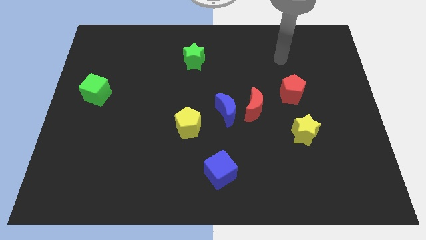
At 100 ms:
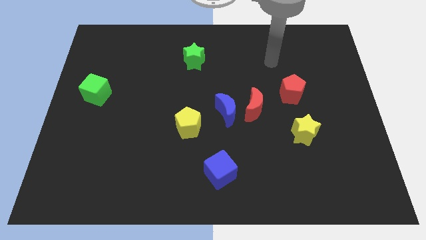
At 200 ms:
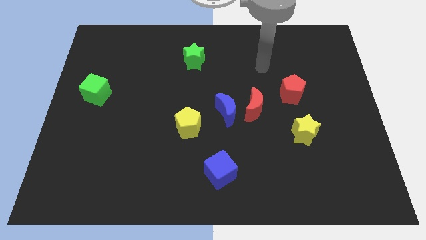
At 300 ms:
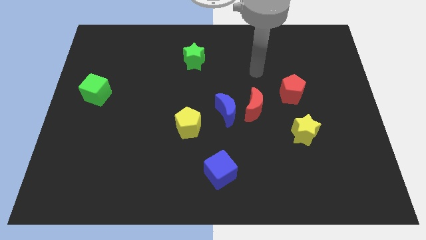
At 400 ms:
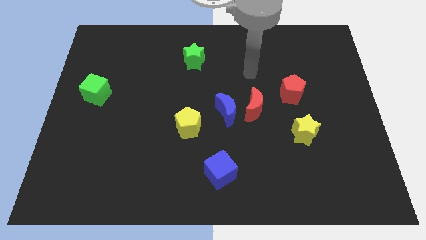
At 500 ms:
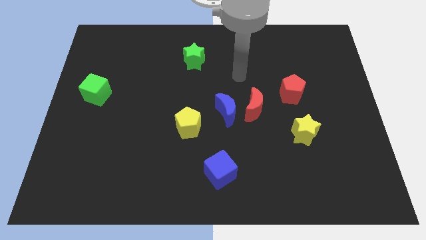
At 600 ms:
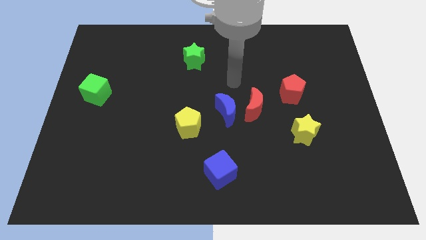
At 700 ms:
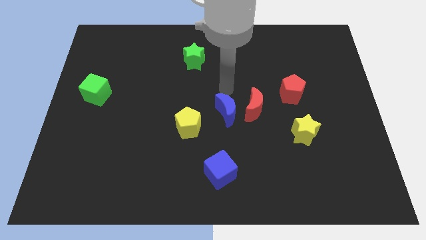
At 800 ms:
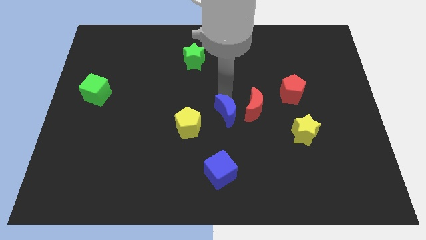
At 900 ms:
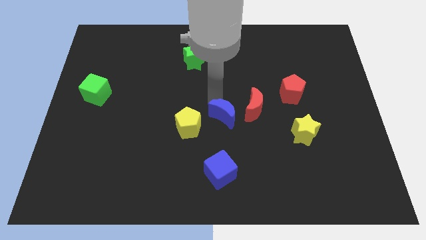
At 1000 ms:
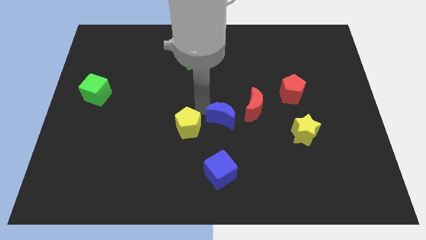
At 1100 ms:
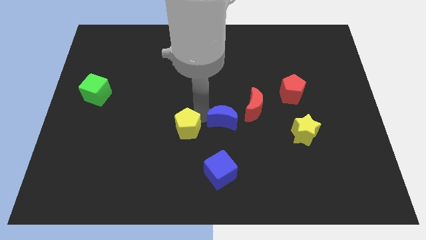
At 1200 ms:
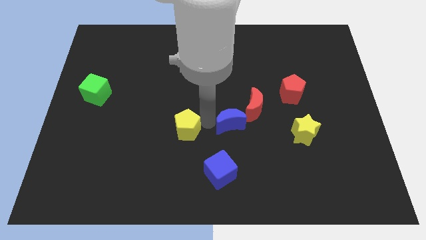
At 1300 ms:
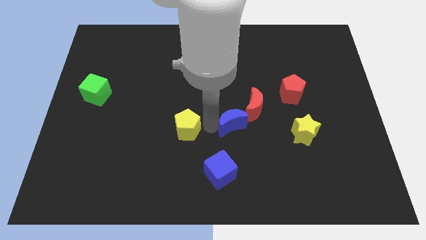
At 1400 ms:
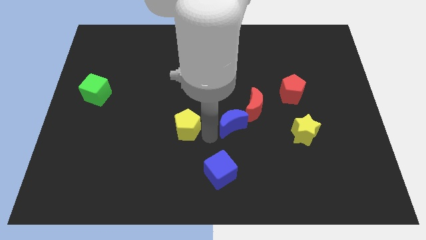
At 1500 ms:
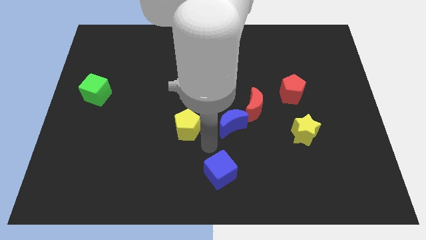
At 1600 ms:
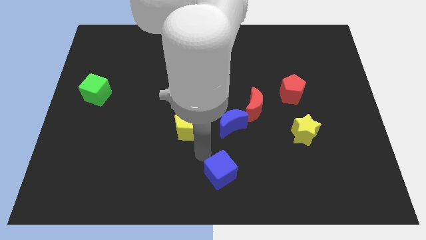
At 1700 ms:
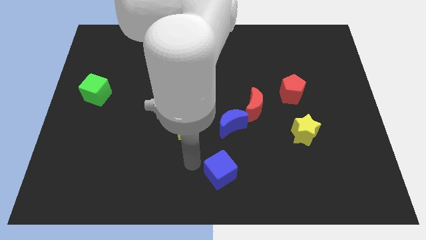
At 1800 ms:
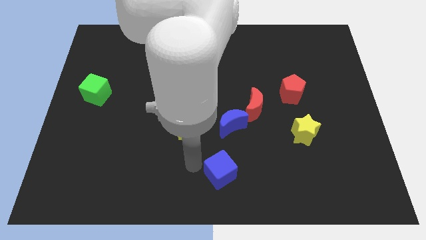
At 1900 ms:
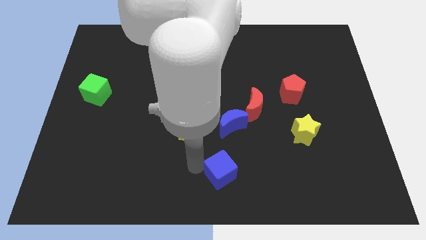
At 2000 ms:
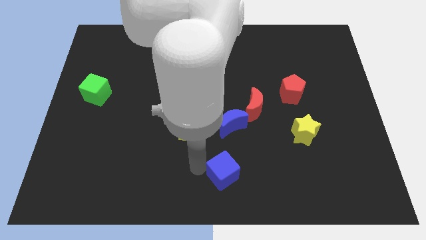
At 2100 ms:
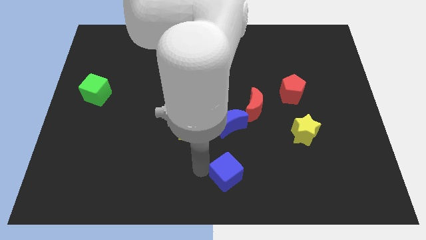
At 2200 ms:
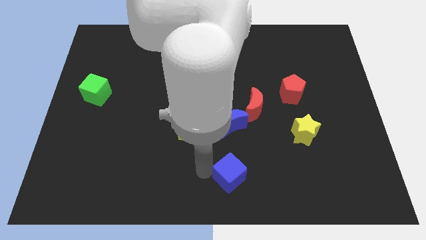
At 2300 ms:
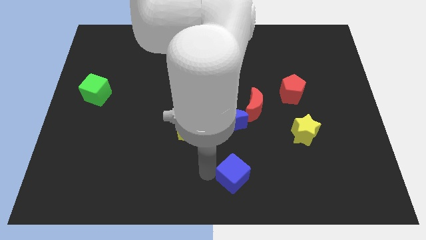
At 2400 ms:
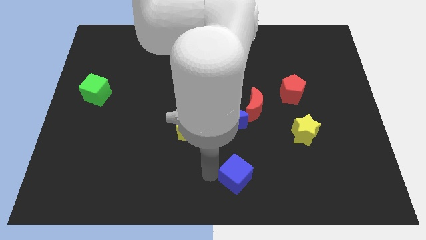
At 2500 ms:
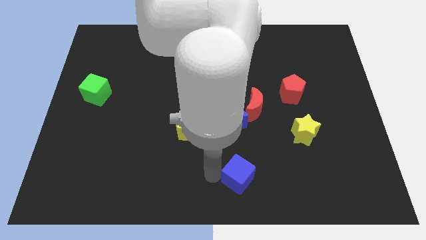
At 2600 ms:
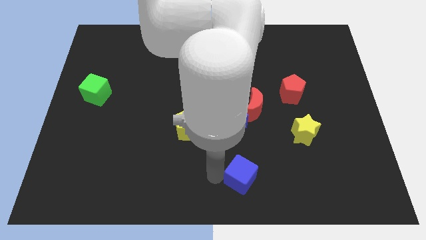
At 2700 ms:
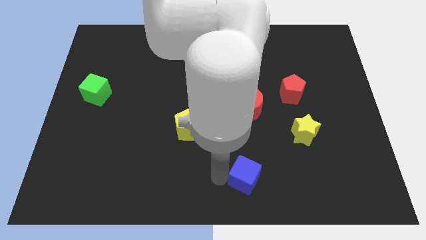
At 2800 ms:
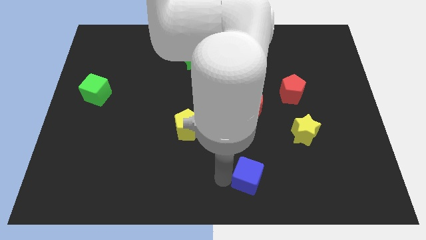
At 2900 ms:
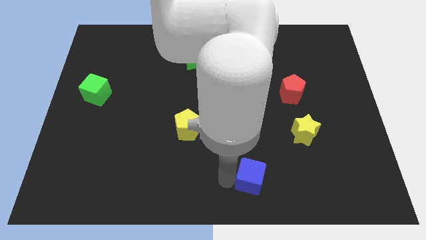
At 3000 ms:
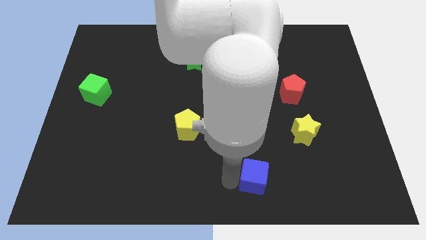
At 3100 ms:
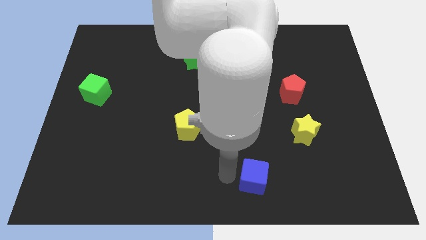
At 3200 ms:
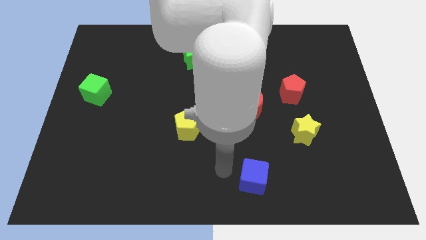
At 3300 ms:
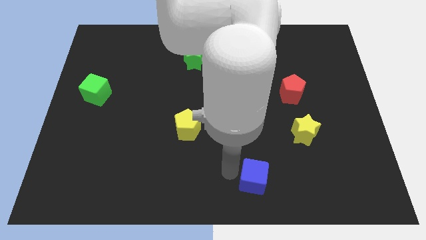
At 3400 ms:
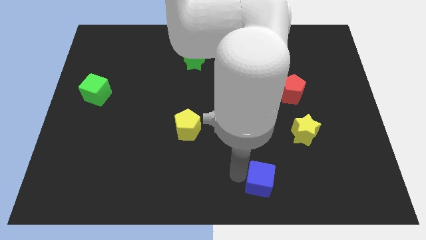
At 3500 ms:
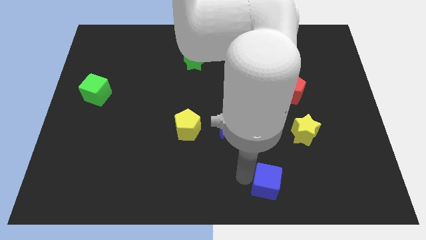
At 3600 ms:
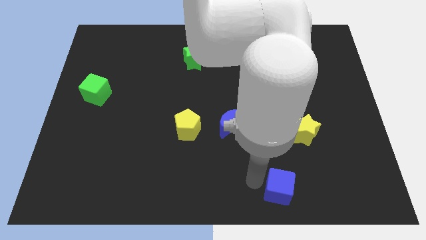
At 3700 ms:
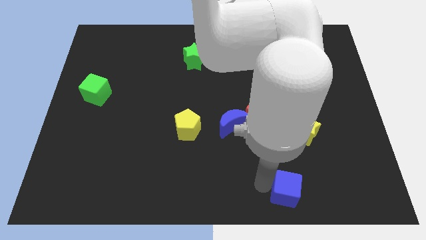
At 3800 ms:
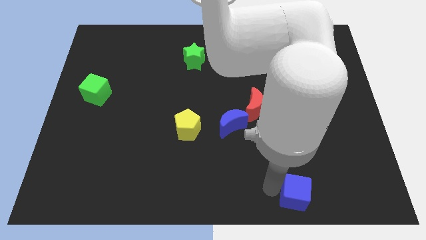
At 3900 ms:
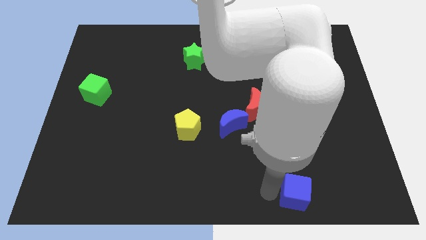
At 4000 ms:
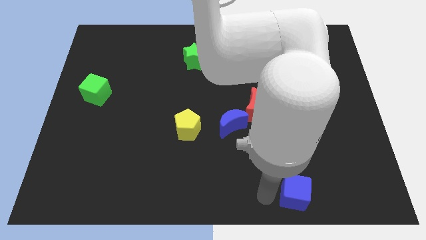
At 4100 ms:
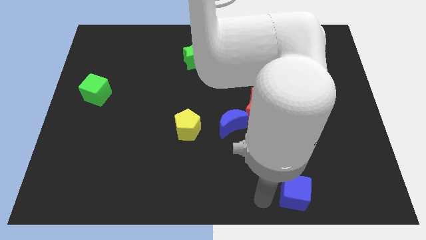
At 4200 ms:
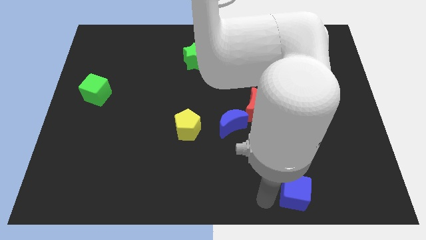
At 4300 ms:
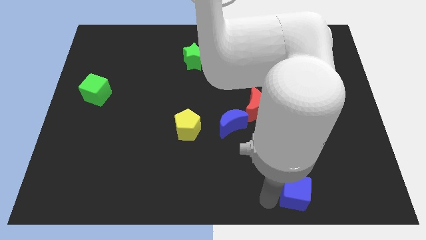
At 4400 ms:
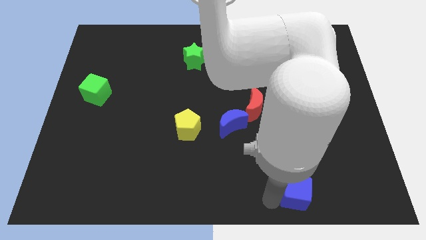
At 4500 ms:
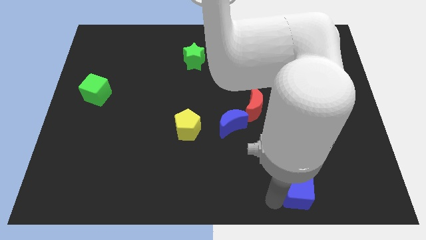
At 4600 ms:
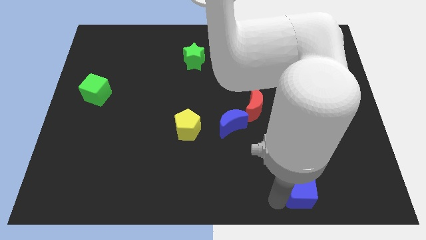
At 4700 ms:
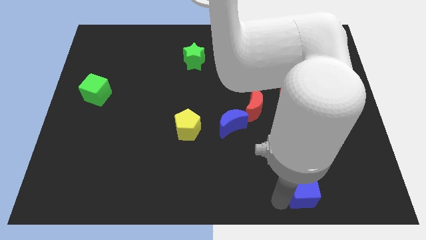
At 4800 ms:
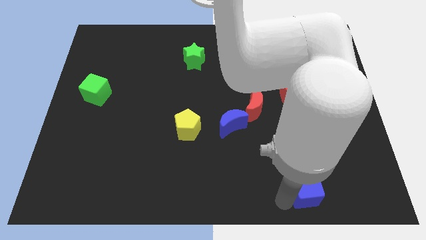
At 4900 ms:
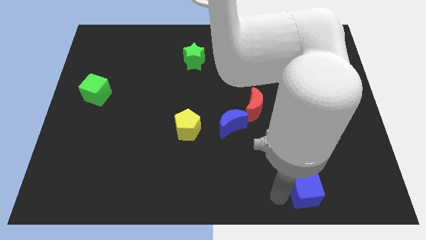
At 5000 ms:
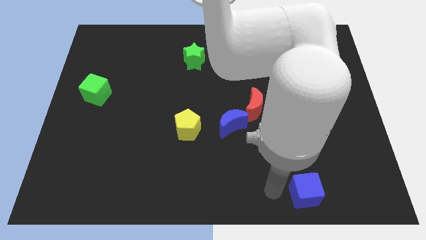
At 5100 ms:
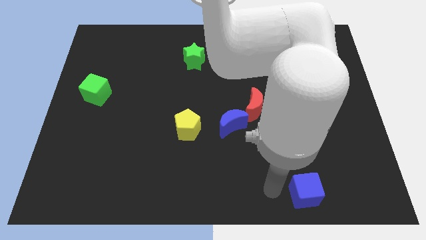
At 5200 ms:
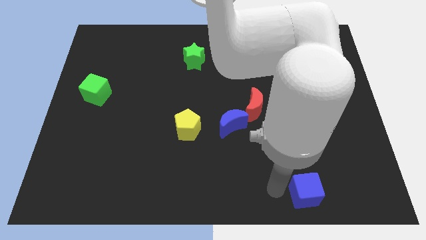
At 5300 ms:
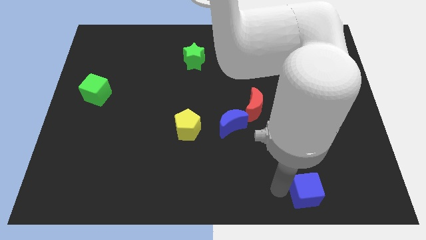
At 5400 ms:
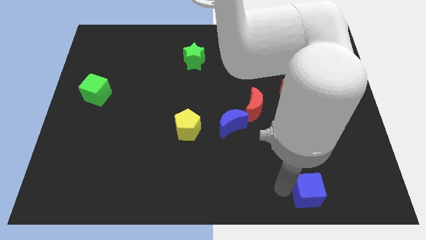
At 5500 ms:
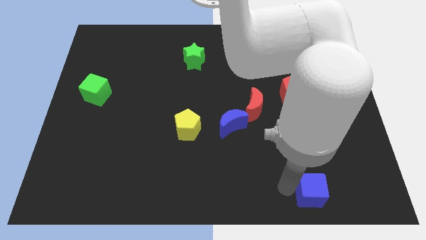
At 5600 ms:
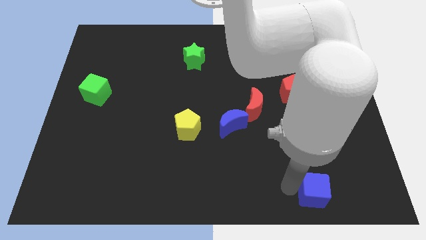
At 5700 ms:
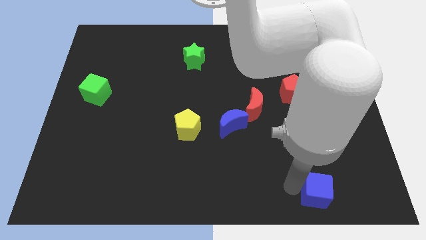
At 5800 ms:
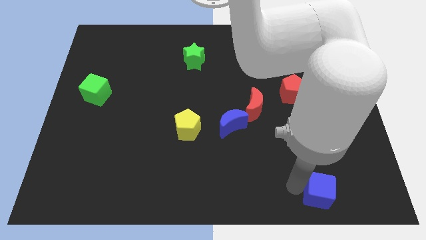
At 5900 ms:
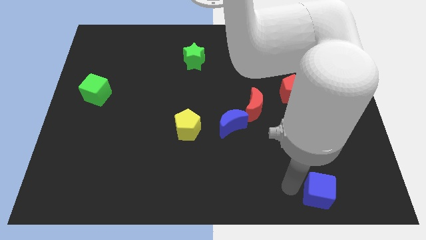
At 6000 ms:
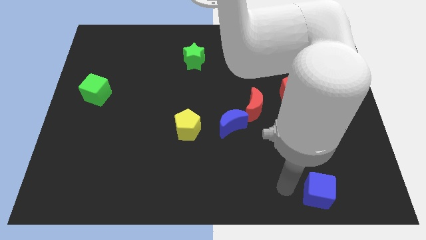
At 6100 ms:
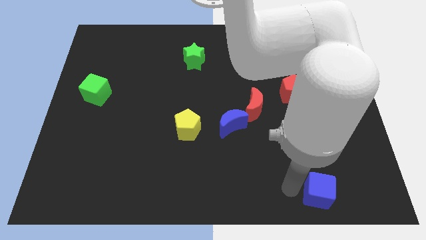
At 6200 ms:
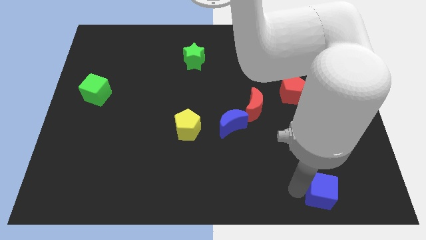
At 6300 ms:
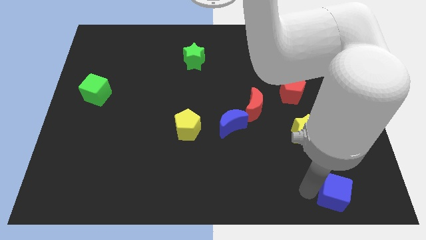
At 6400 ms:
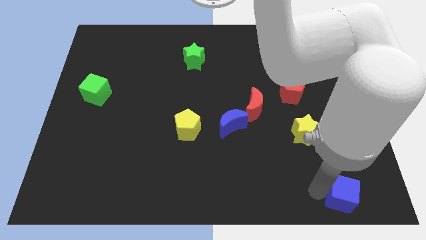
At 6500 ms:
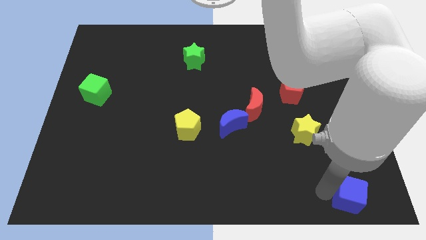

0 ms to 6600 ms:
slide the blue cube to the bottom right
